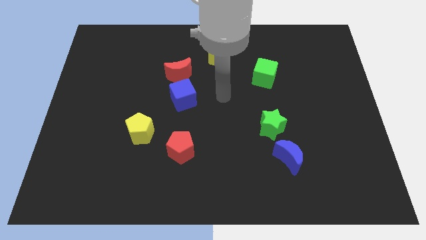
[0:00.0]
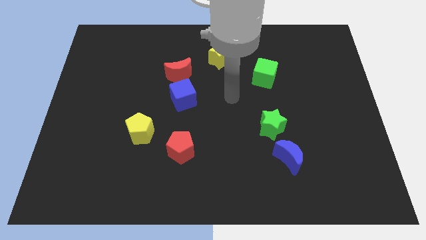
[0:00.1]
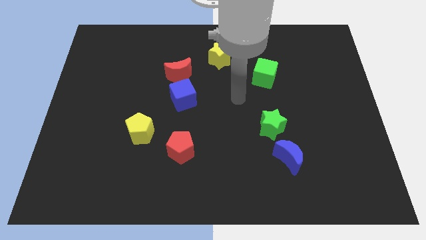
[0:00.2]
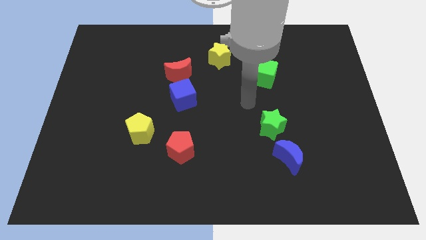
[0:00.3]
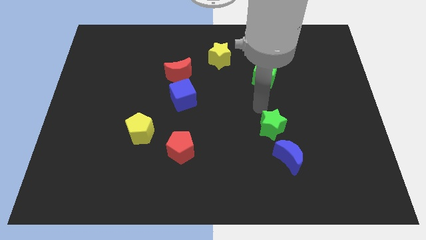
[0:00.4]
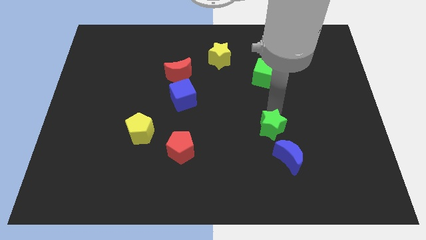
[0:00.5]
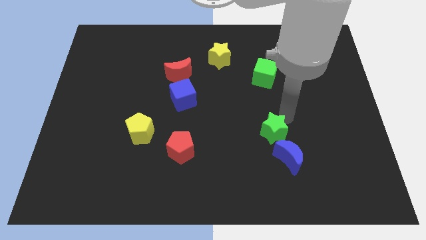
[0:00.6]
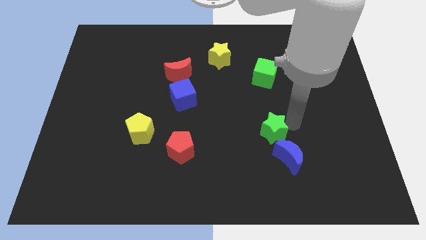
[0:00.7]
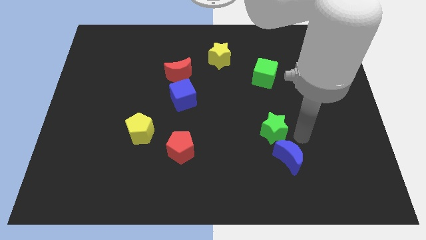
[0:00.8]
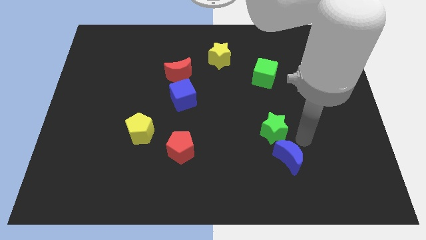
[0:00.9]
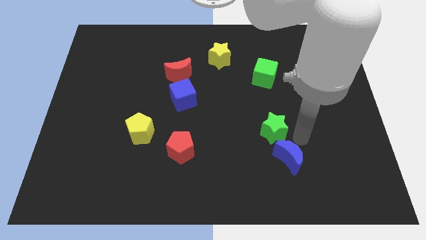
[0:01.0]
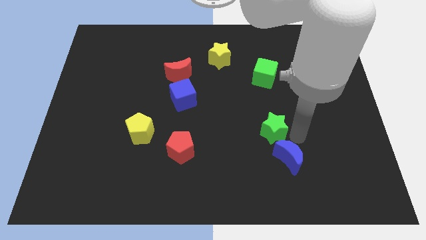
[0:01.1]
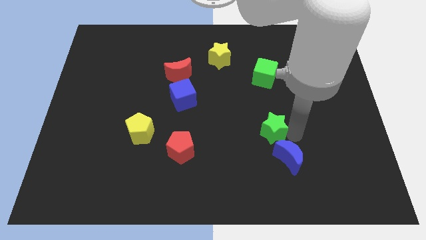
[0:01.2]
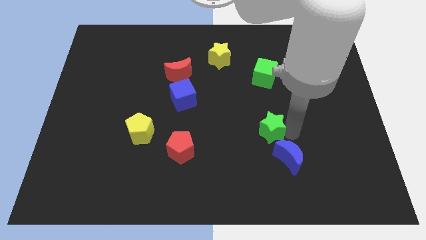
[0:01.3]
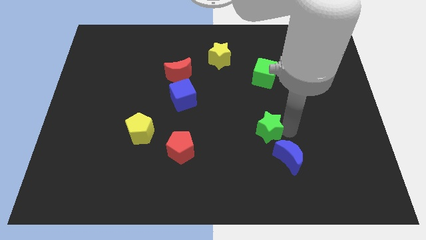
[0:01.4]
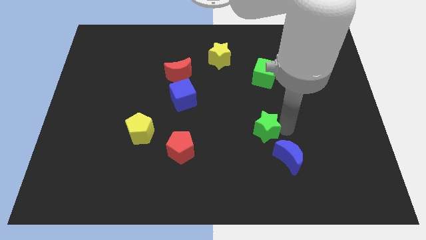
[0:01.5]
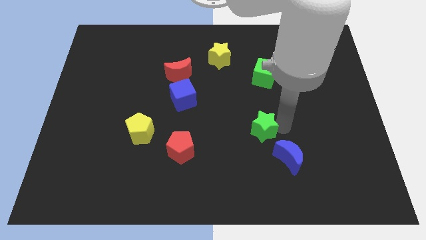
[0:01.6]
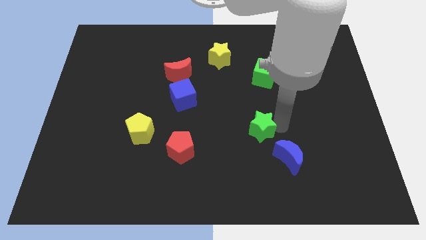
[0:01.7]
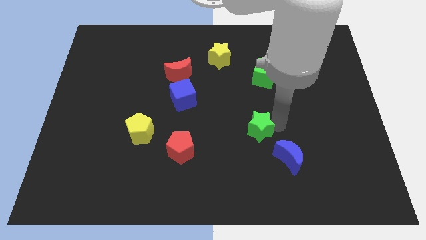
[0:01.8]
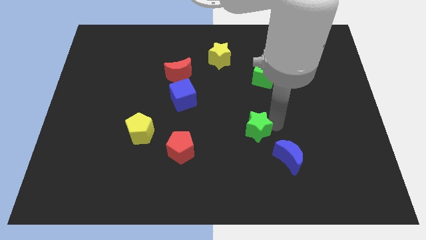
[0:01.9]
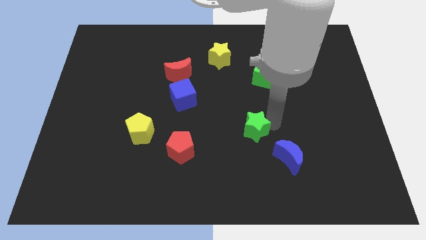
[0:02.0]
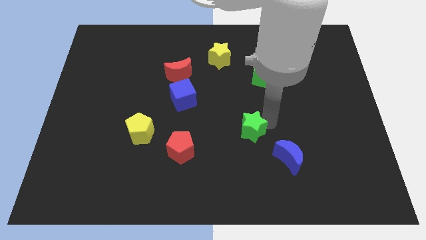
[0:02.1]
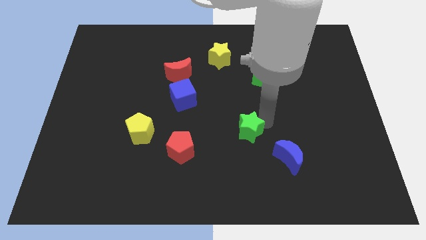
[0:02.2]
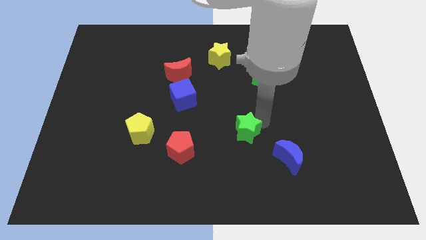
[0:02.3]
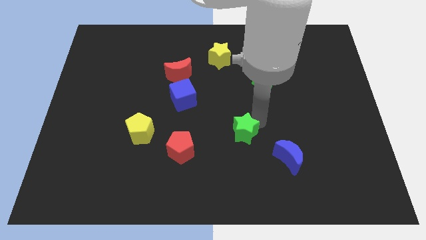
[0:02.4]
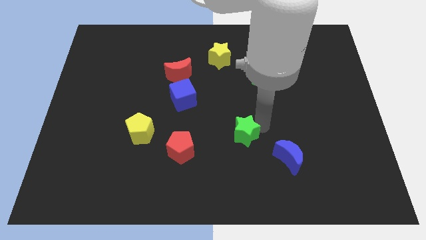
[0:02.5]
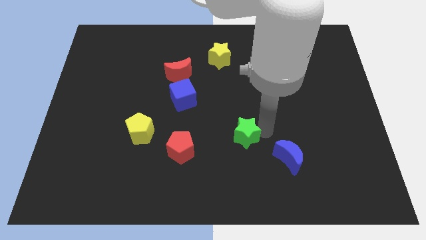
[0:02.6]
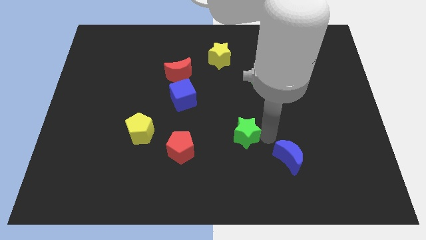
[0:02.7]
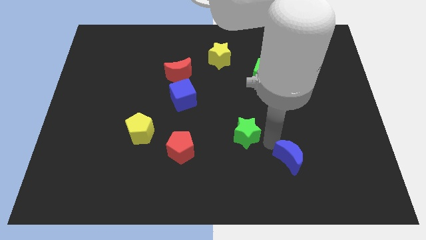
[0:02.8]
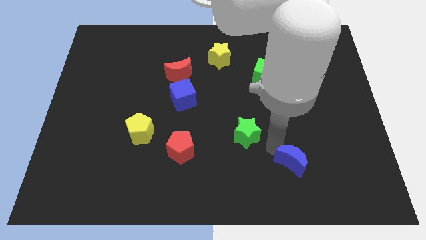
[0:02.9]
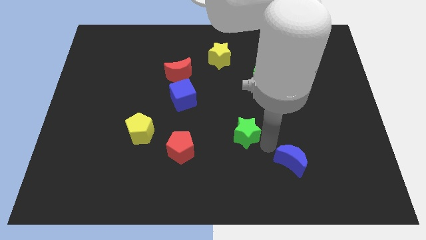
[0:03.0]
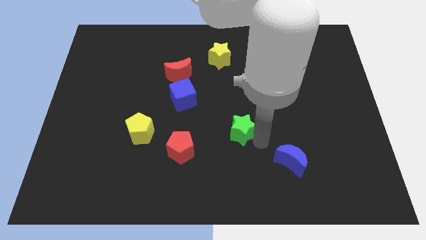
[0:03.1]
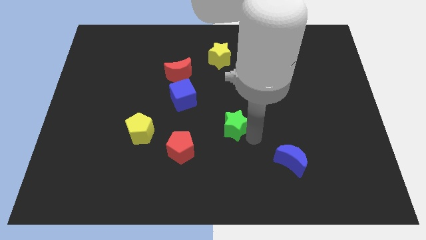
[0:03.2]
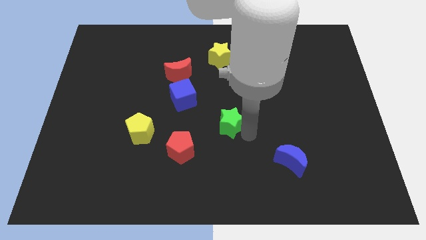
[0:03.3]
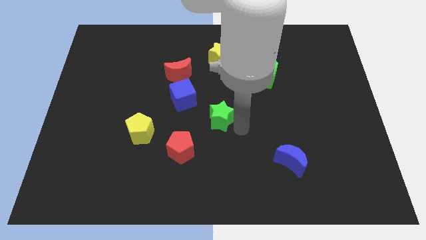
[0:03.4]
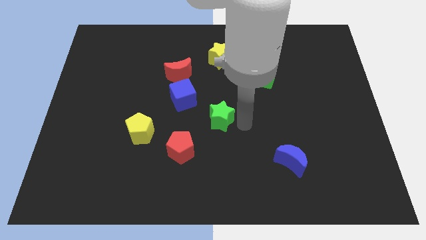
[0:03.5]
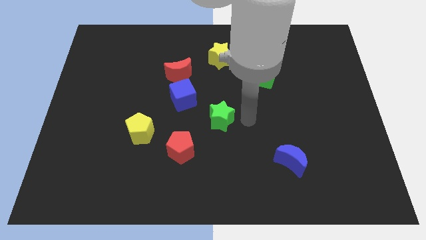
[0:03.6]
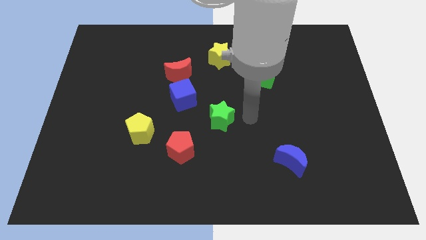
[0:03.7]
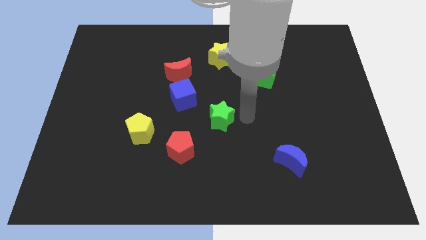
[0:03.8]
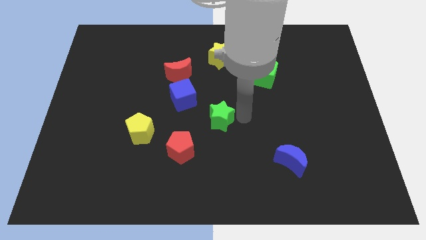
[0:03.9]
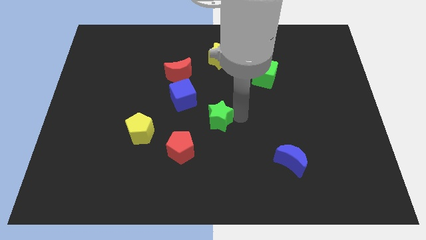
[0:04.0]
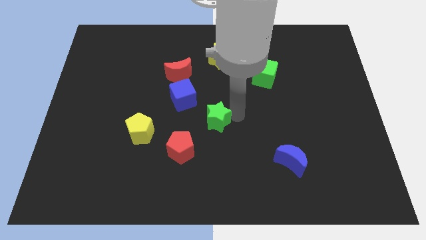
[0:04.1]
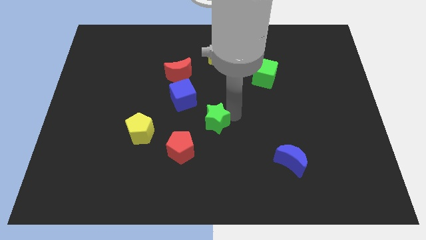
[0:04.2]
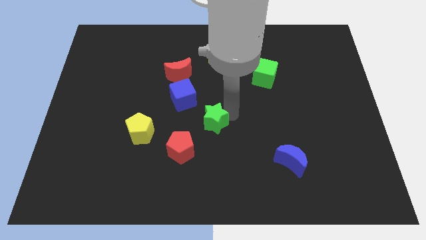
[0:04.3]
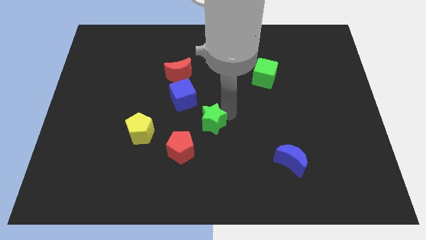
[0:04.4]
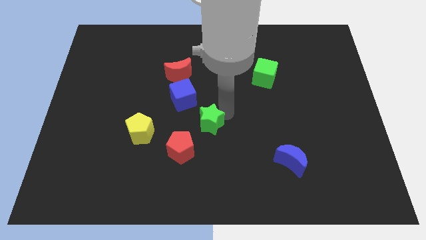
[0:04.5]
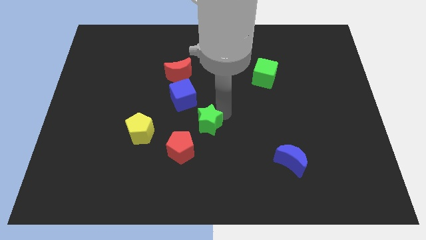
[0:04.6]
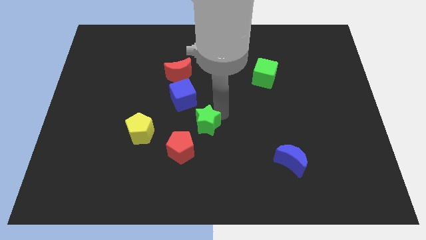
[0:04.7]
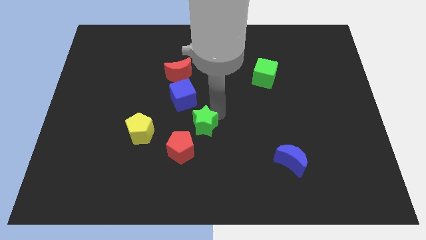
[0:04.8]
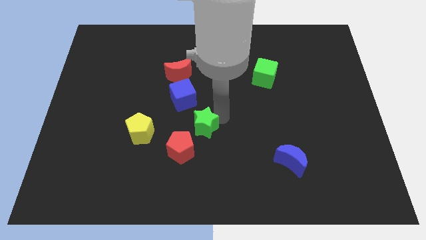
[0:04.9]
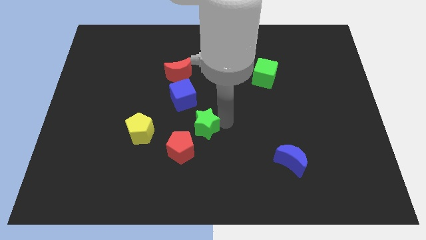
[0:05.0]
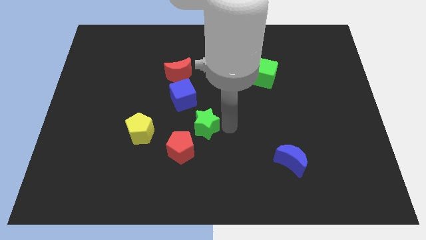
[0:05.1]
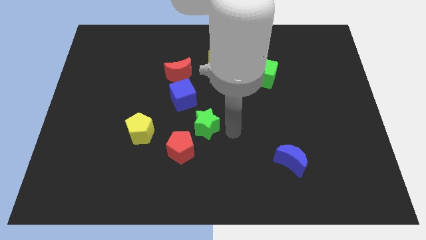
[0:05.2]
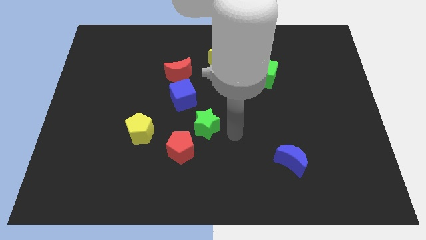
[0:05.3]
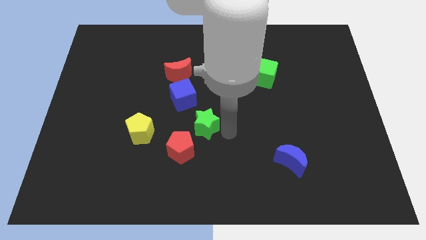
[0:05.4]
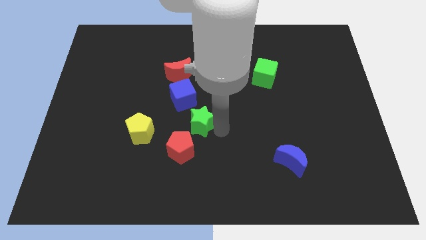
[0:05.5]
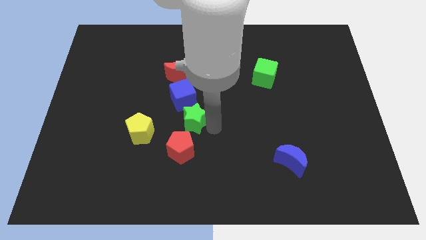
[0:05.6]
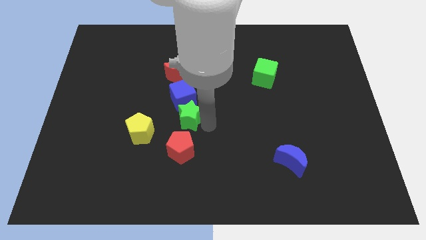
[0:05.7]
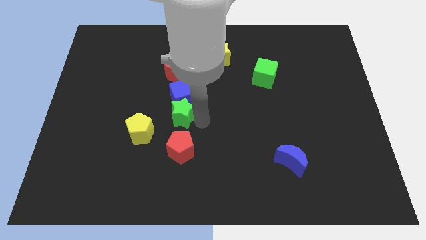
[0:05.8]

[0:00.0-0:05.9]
move the green star diagonally up and to the right of the yellow pentagon

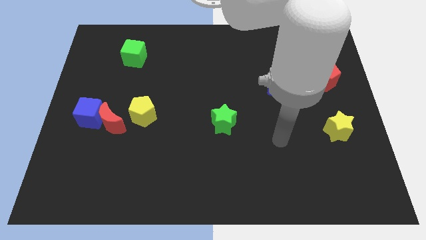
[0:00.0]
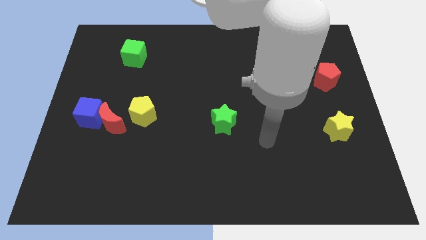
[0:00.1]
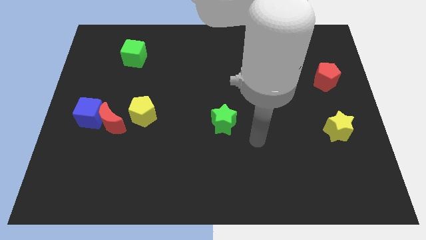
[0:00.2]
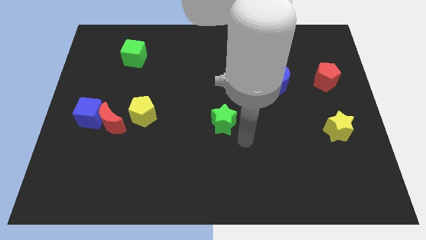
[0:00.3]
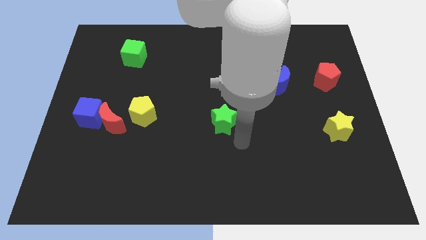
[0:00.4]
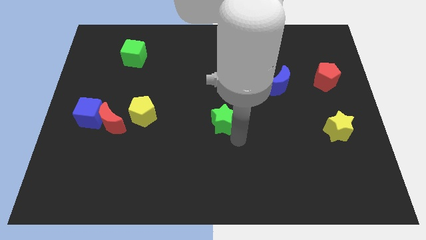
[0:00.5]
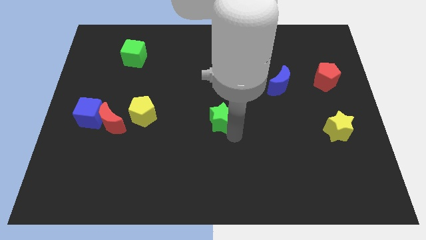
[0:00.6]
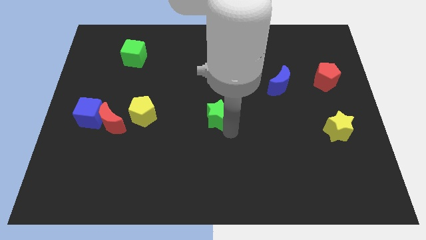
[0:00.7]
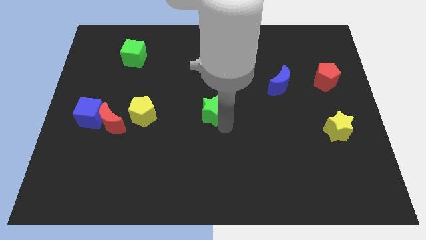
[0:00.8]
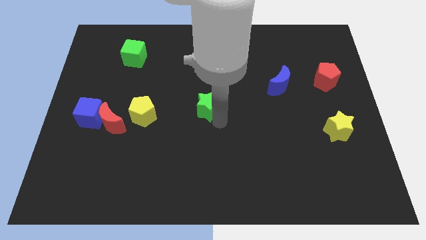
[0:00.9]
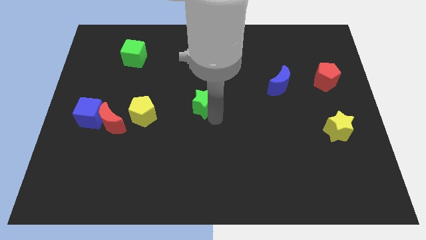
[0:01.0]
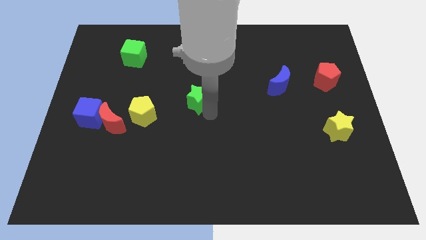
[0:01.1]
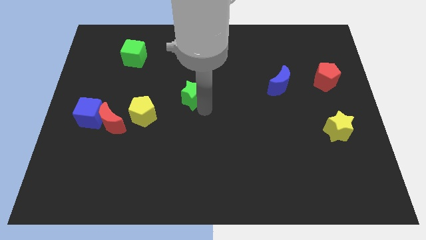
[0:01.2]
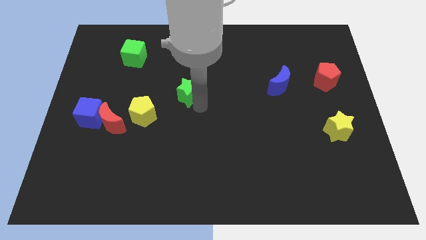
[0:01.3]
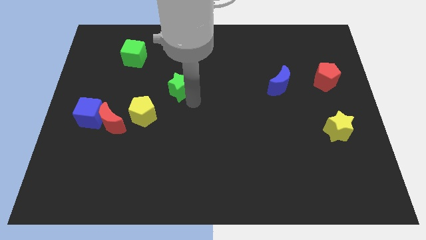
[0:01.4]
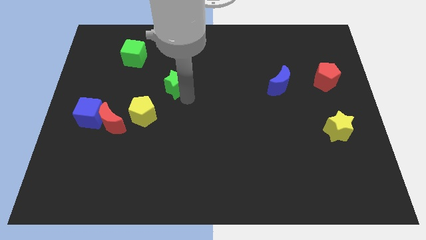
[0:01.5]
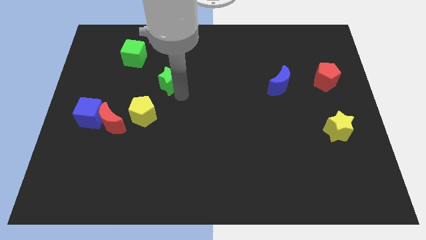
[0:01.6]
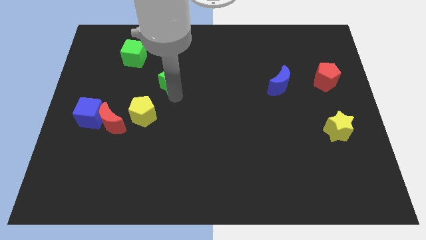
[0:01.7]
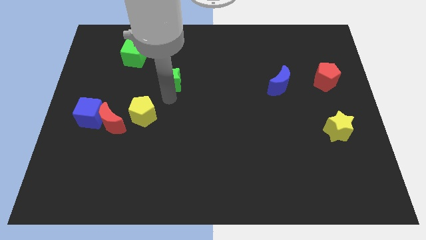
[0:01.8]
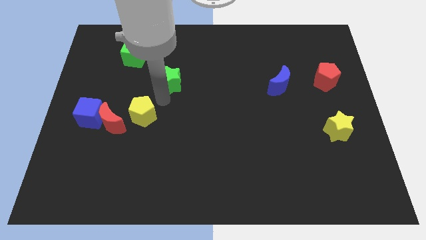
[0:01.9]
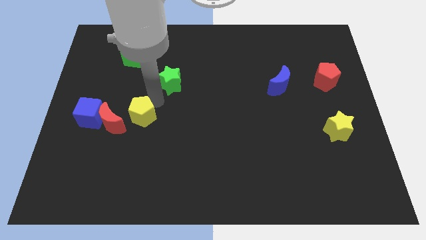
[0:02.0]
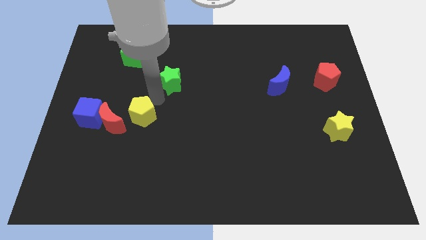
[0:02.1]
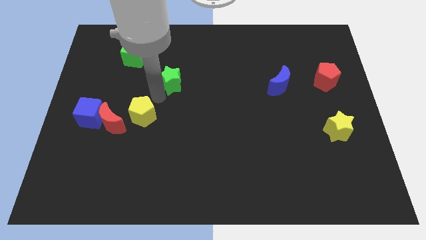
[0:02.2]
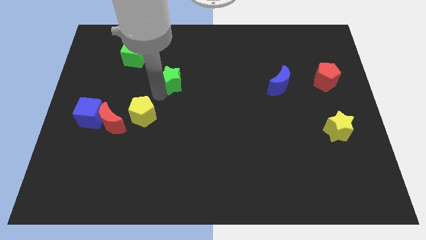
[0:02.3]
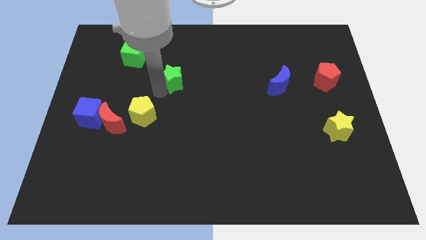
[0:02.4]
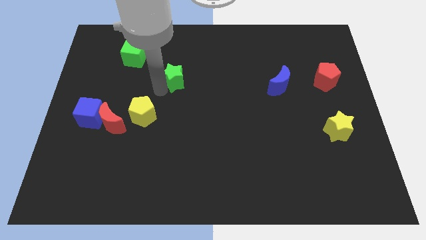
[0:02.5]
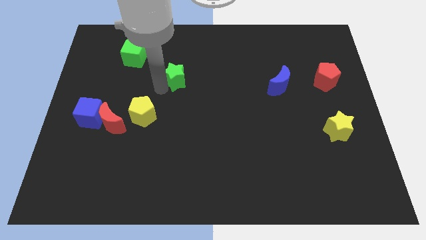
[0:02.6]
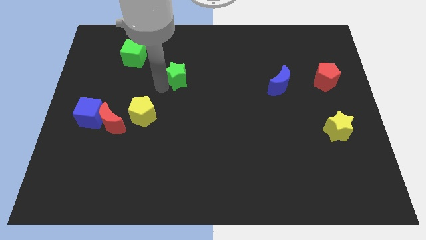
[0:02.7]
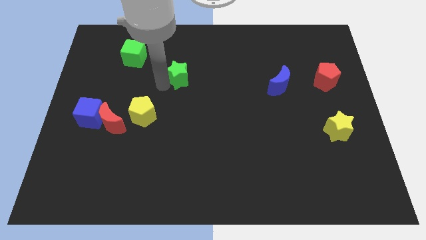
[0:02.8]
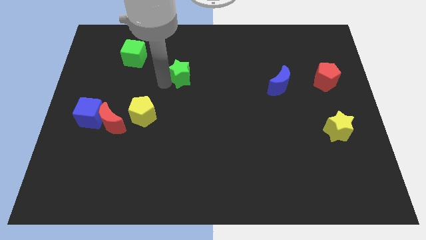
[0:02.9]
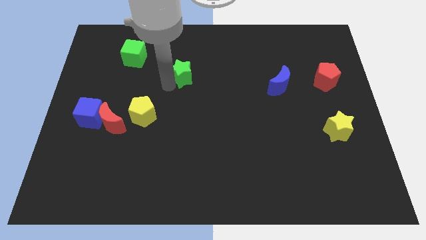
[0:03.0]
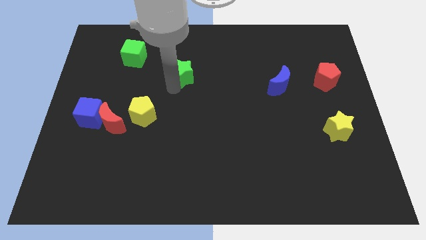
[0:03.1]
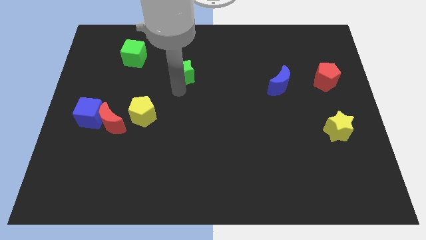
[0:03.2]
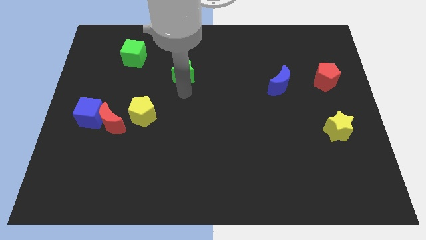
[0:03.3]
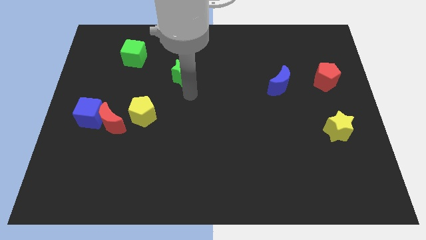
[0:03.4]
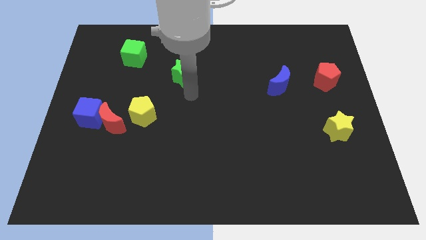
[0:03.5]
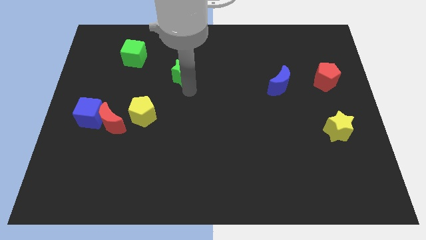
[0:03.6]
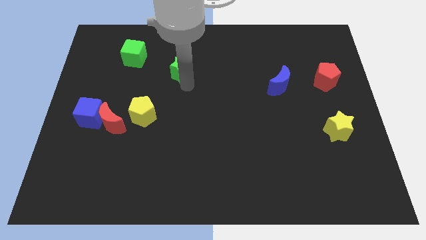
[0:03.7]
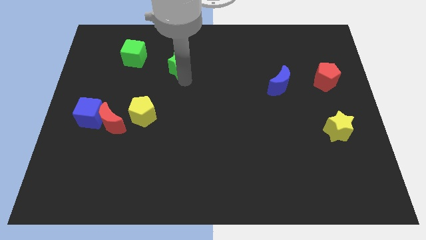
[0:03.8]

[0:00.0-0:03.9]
slide the green star to the right of the green cube
